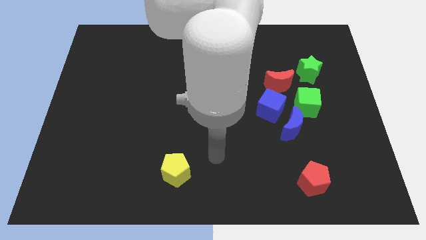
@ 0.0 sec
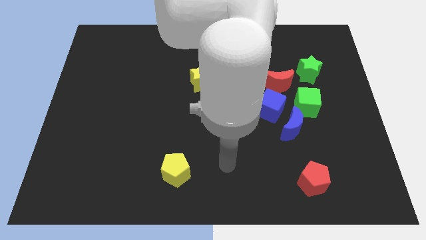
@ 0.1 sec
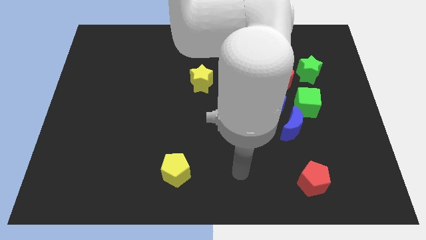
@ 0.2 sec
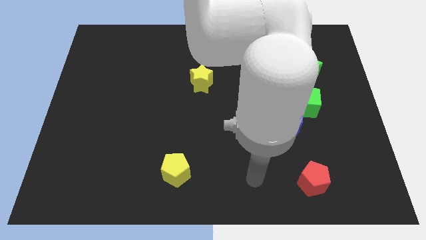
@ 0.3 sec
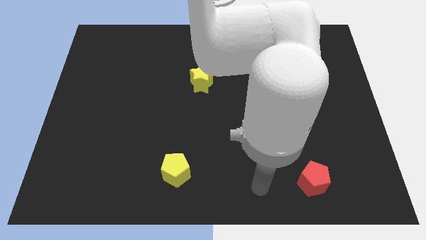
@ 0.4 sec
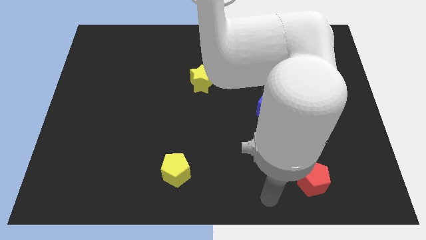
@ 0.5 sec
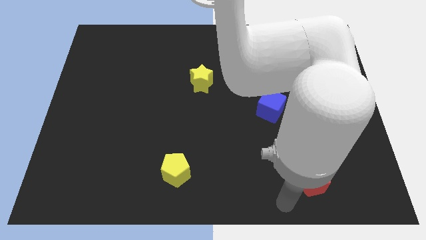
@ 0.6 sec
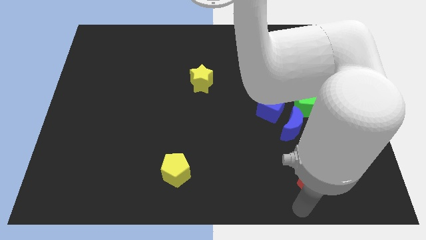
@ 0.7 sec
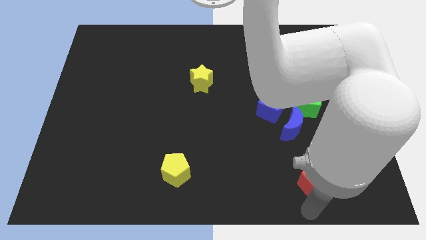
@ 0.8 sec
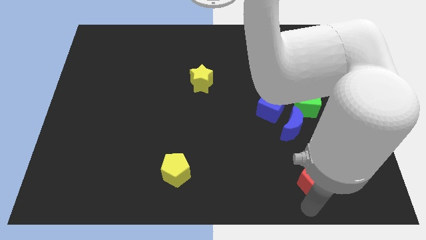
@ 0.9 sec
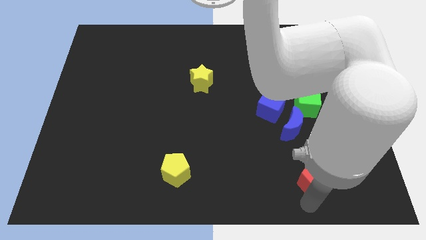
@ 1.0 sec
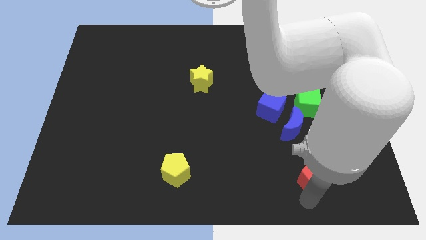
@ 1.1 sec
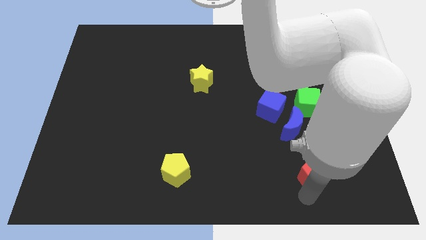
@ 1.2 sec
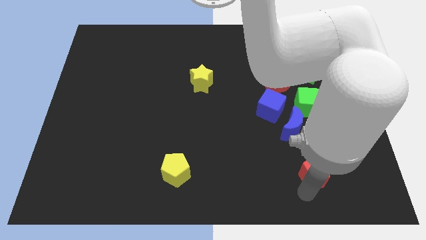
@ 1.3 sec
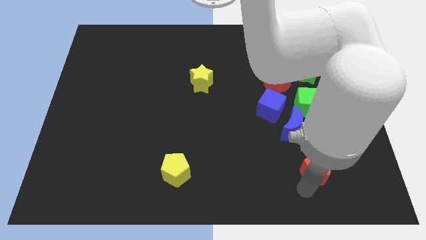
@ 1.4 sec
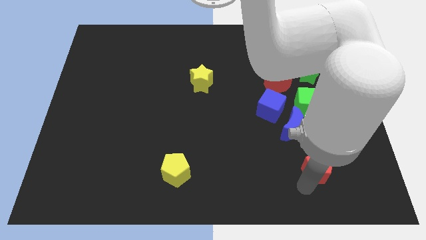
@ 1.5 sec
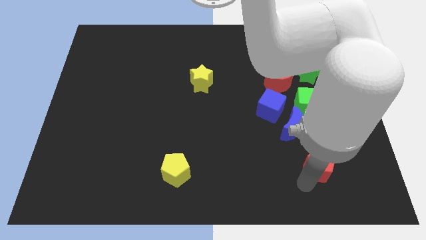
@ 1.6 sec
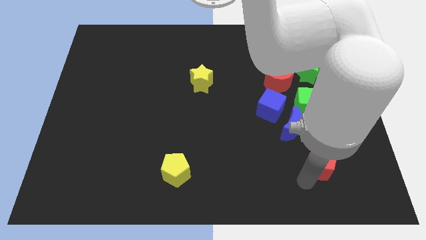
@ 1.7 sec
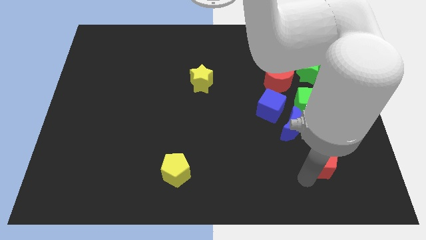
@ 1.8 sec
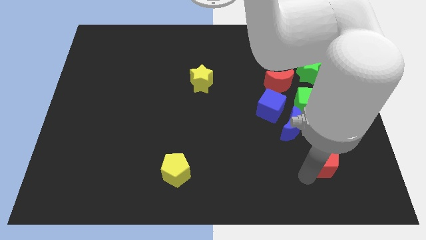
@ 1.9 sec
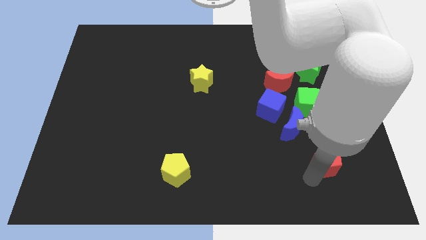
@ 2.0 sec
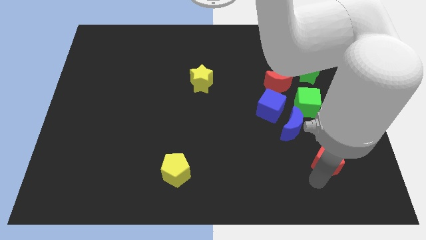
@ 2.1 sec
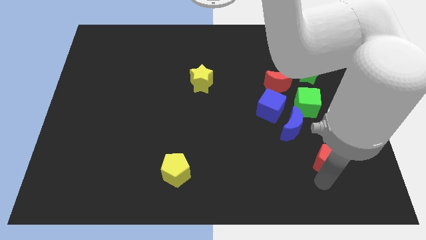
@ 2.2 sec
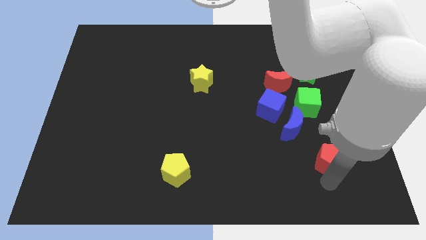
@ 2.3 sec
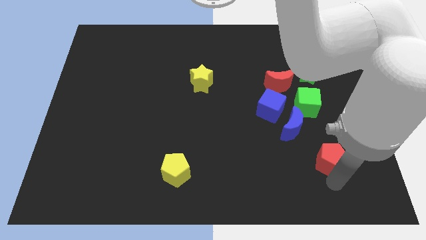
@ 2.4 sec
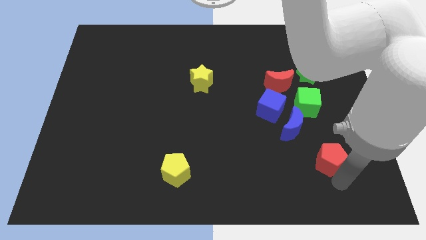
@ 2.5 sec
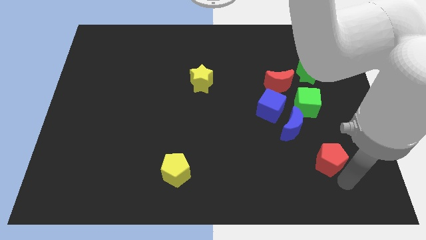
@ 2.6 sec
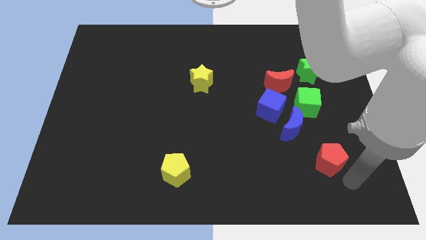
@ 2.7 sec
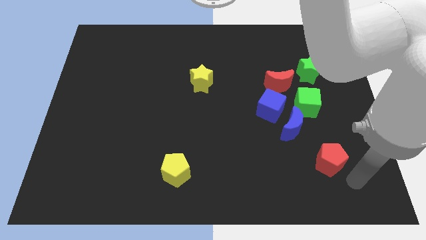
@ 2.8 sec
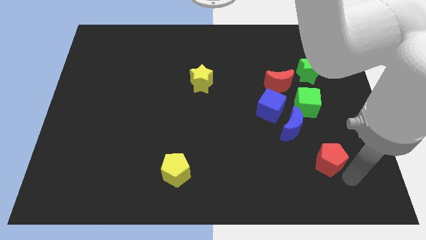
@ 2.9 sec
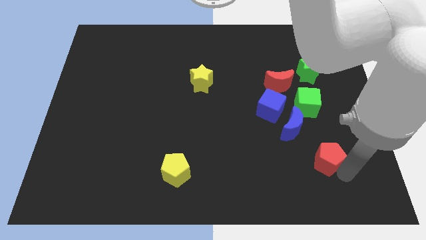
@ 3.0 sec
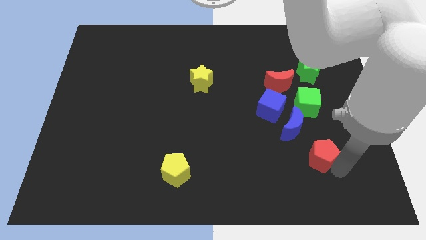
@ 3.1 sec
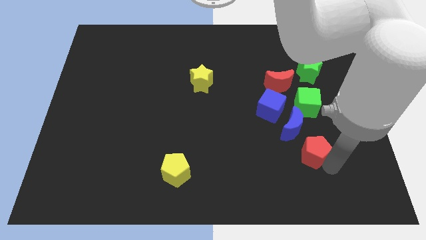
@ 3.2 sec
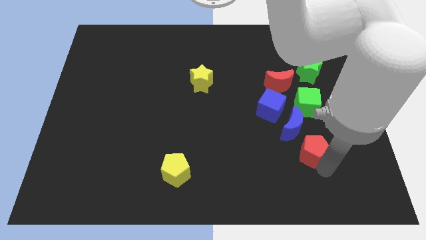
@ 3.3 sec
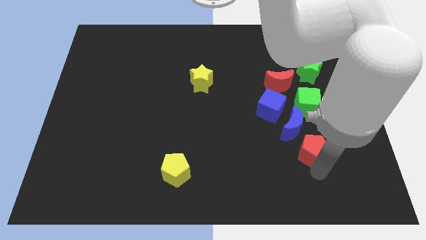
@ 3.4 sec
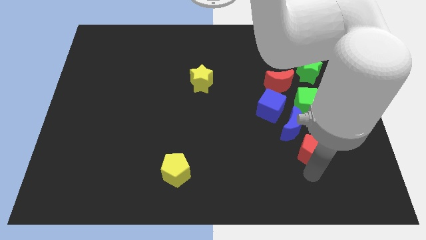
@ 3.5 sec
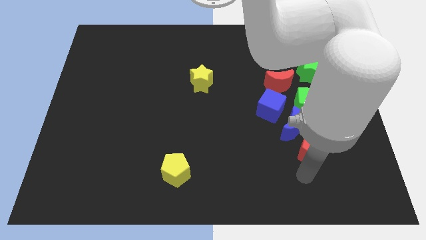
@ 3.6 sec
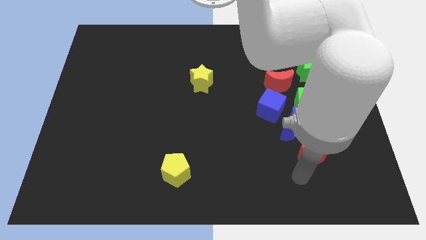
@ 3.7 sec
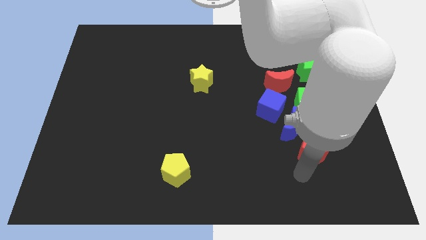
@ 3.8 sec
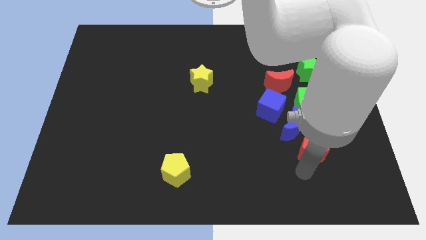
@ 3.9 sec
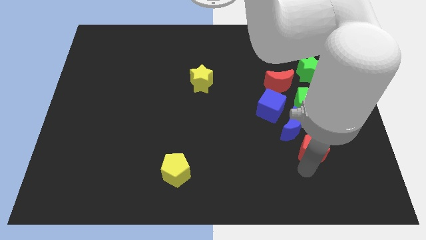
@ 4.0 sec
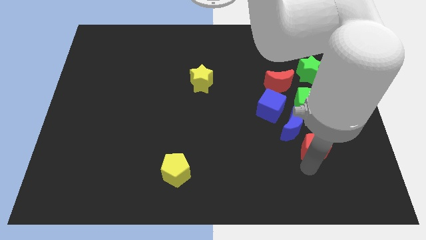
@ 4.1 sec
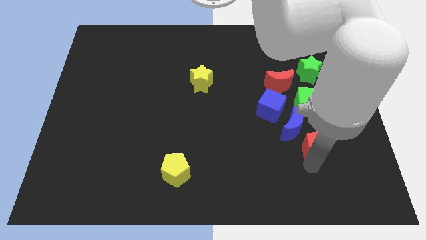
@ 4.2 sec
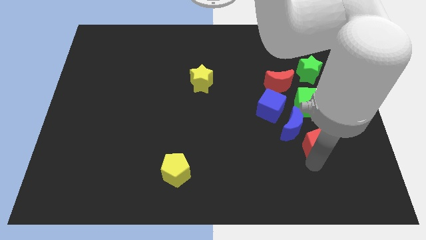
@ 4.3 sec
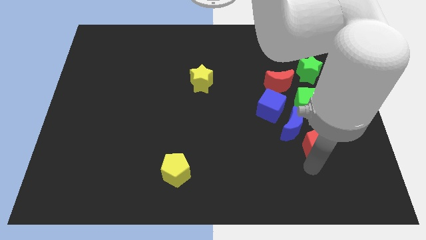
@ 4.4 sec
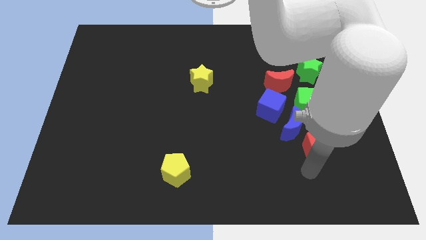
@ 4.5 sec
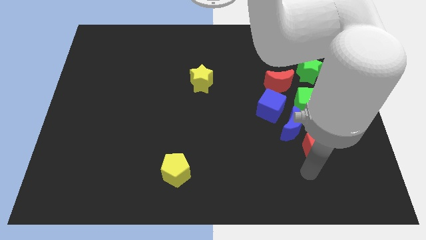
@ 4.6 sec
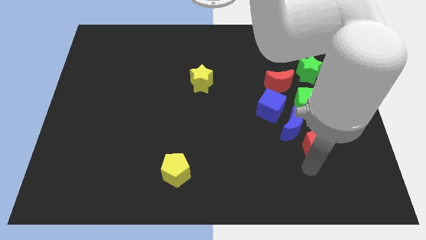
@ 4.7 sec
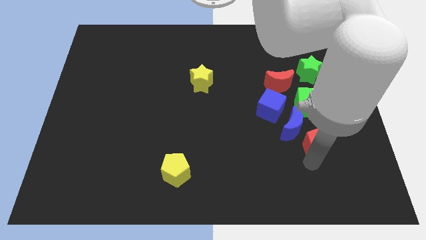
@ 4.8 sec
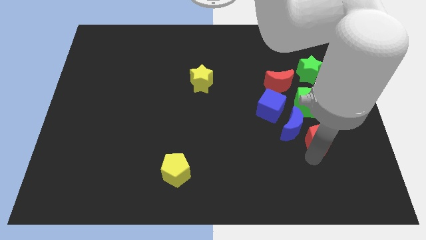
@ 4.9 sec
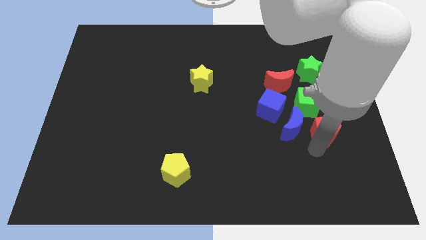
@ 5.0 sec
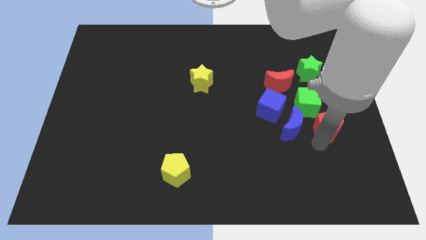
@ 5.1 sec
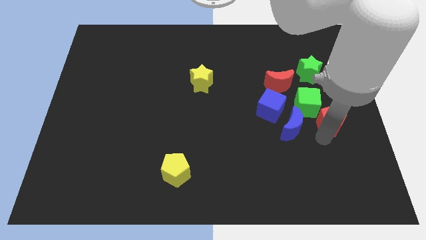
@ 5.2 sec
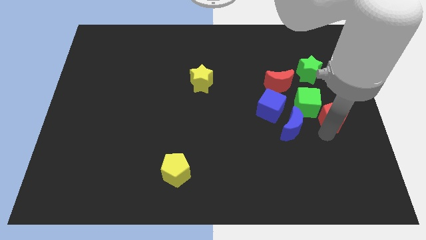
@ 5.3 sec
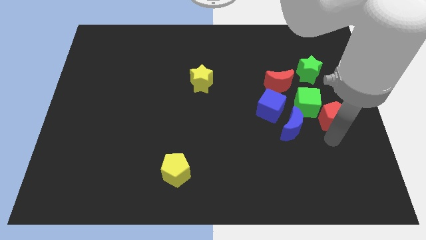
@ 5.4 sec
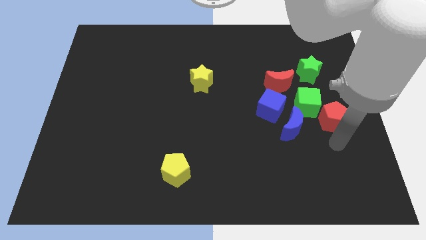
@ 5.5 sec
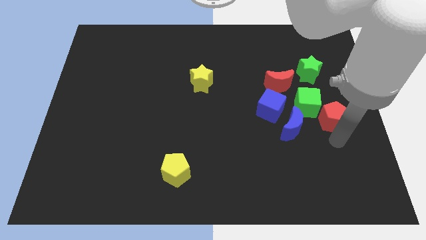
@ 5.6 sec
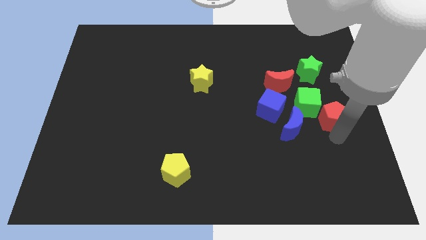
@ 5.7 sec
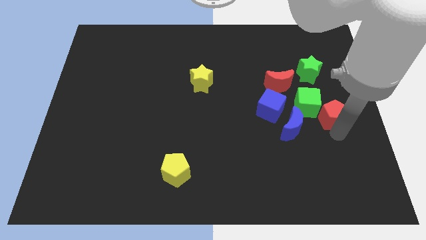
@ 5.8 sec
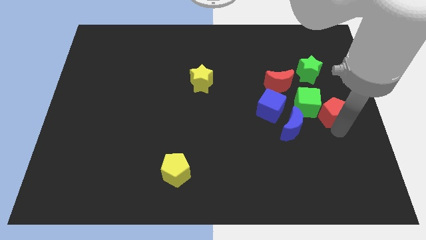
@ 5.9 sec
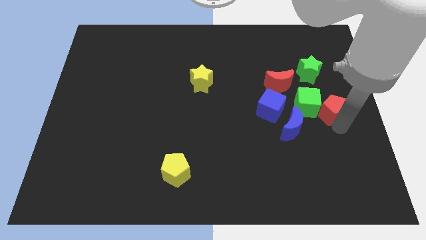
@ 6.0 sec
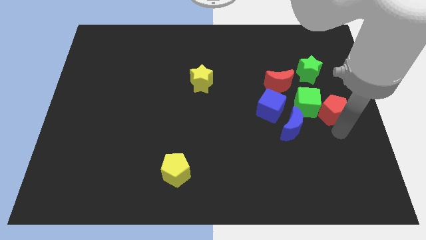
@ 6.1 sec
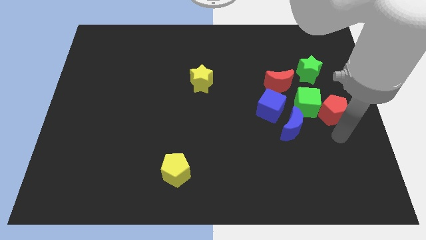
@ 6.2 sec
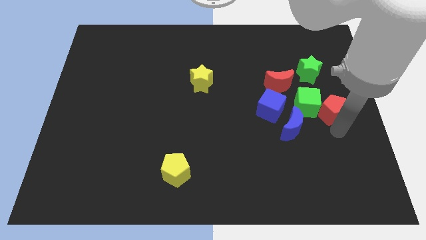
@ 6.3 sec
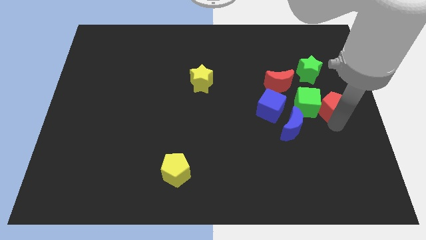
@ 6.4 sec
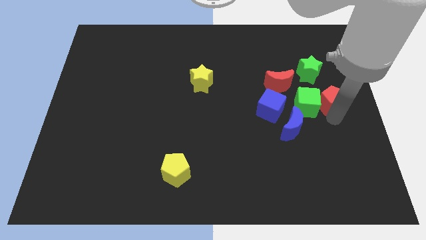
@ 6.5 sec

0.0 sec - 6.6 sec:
slide the red pentagon to the top right side of the green cube

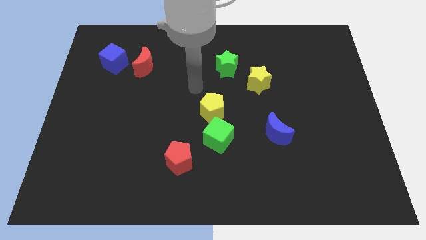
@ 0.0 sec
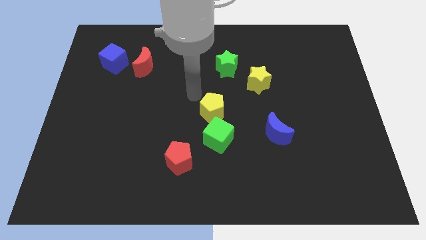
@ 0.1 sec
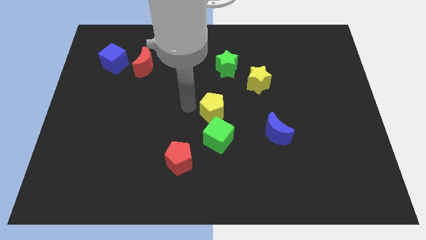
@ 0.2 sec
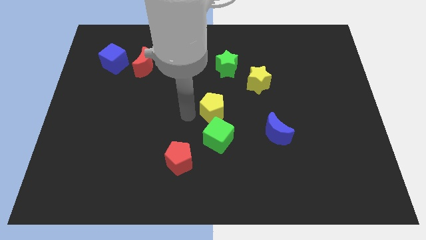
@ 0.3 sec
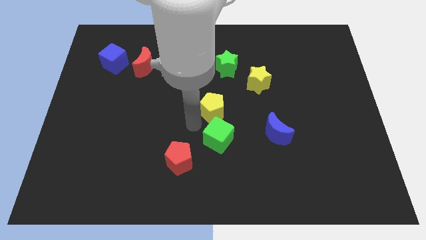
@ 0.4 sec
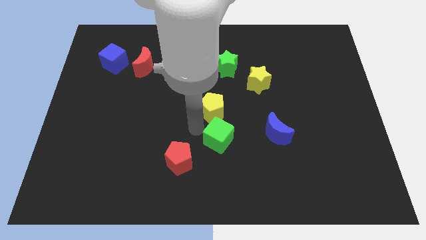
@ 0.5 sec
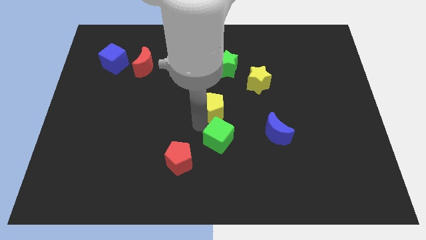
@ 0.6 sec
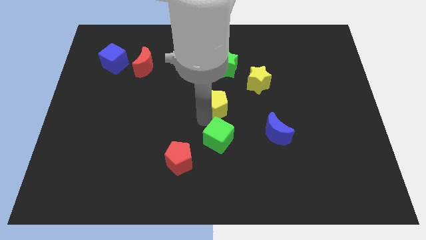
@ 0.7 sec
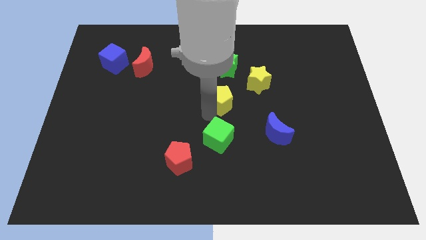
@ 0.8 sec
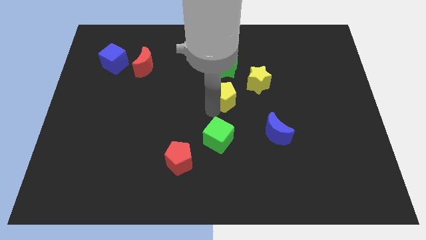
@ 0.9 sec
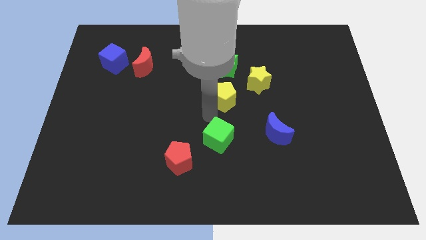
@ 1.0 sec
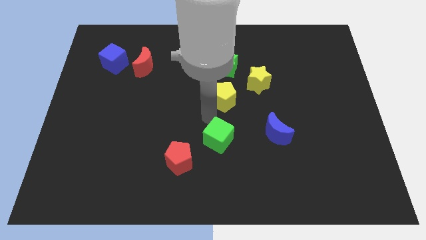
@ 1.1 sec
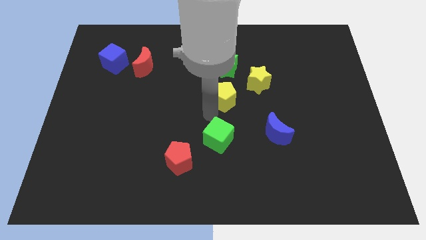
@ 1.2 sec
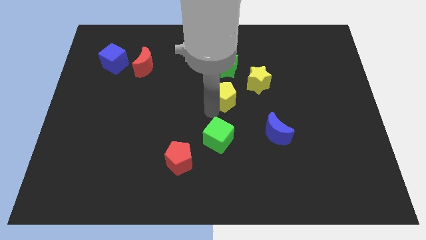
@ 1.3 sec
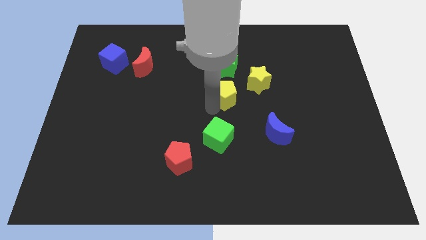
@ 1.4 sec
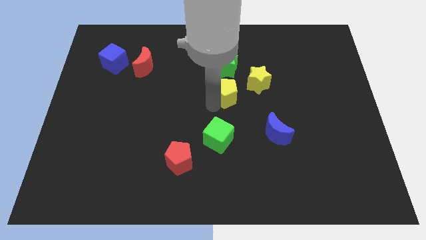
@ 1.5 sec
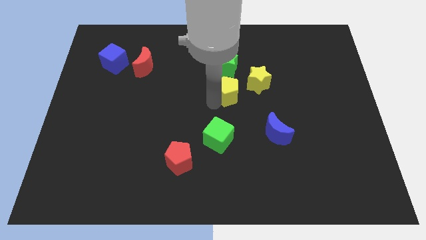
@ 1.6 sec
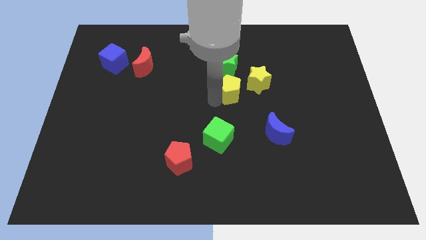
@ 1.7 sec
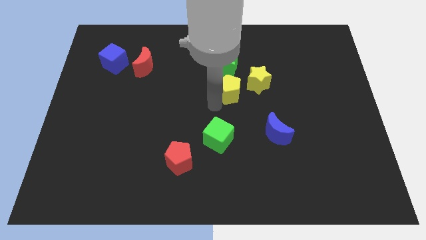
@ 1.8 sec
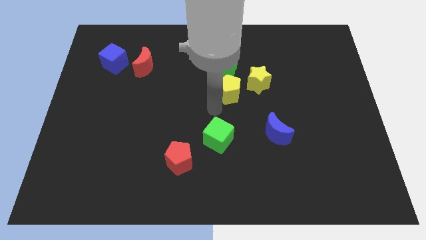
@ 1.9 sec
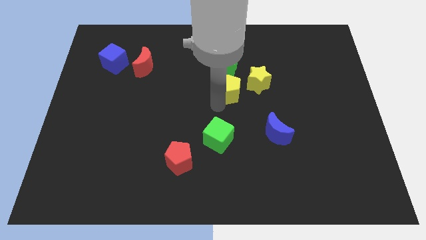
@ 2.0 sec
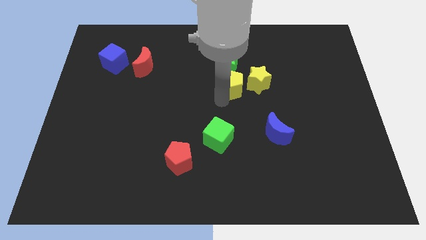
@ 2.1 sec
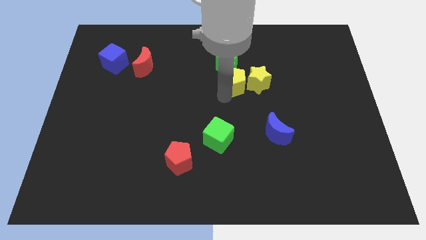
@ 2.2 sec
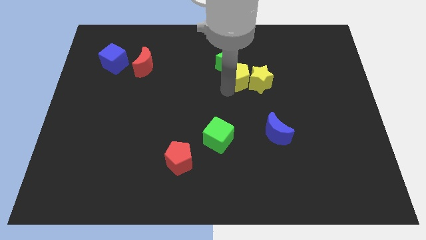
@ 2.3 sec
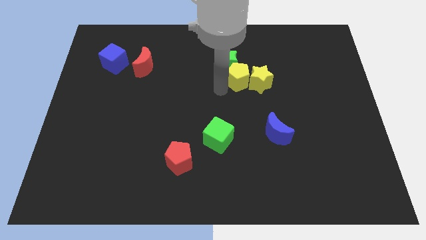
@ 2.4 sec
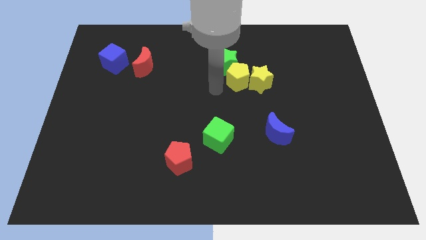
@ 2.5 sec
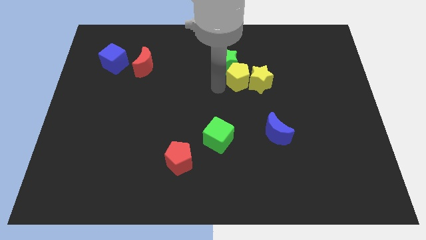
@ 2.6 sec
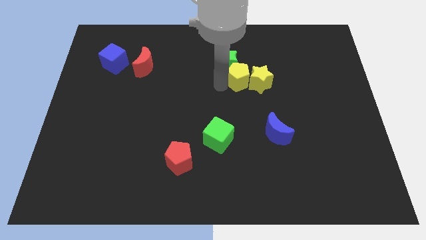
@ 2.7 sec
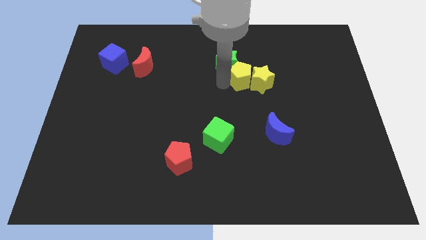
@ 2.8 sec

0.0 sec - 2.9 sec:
slide the yellow pentagon just right of the green star
